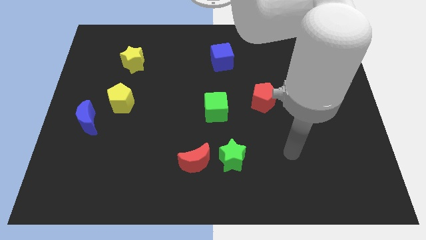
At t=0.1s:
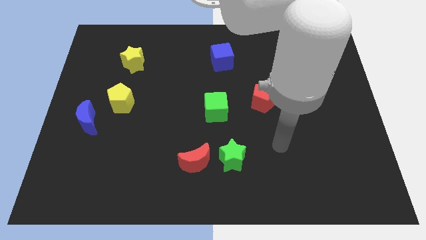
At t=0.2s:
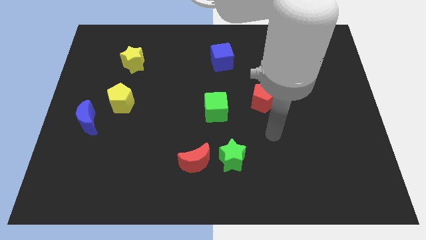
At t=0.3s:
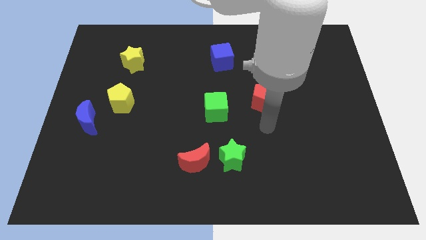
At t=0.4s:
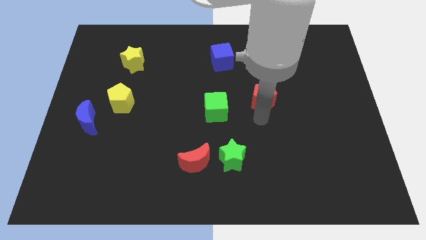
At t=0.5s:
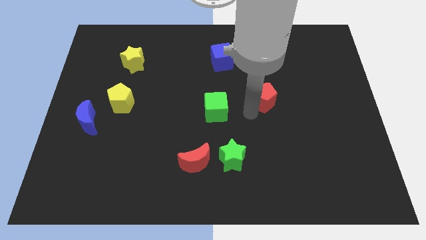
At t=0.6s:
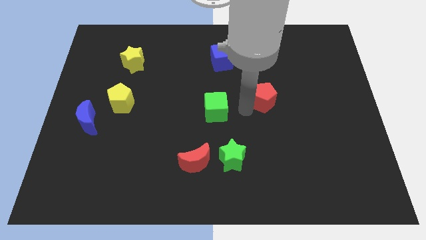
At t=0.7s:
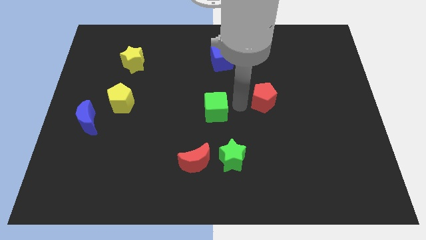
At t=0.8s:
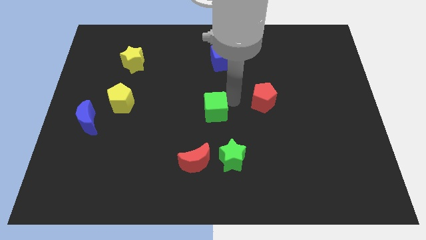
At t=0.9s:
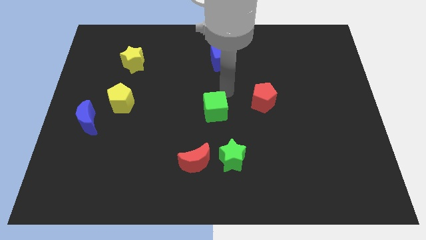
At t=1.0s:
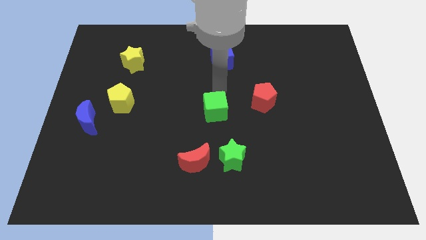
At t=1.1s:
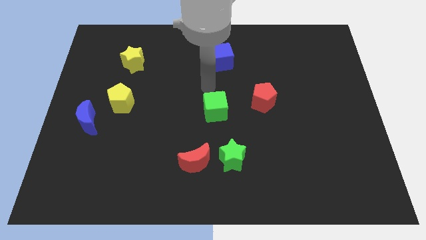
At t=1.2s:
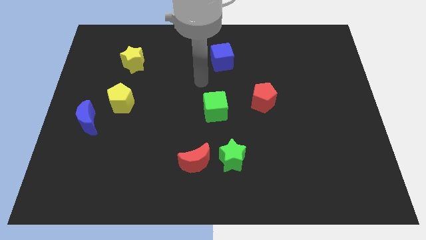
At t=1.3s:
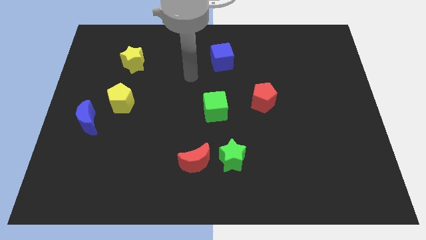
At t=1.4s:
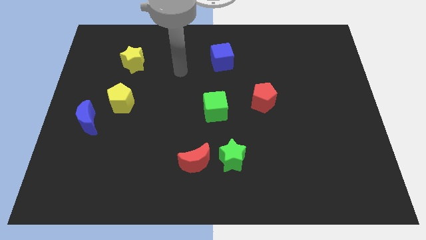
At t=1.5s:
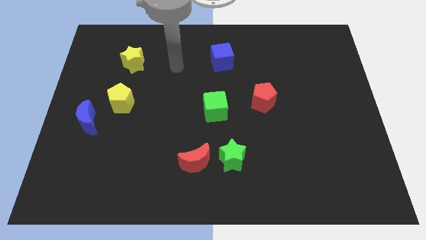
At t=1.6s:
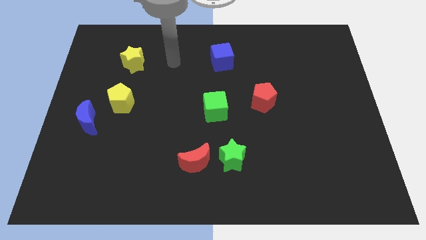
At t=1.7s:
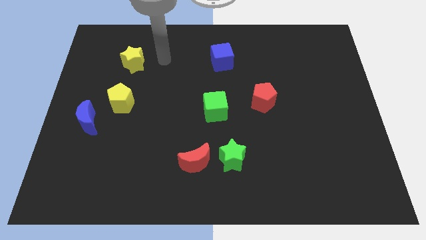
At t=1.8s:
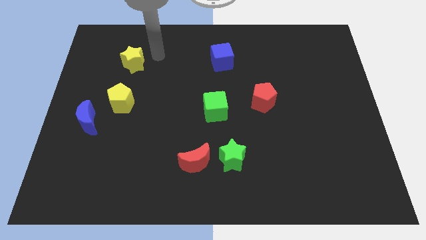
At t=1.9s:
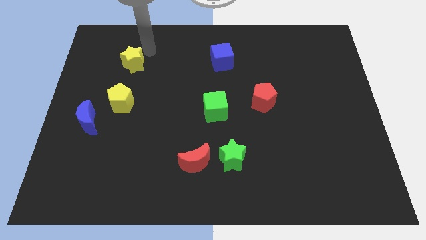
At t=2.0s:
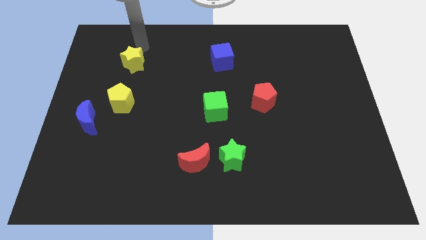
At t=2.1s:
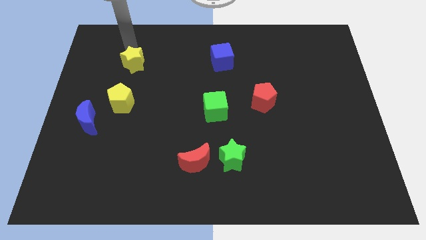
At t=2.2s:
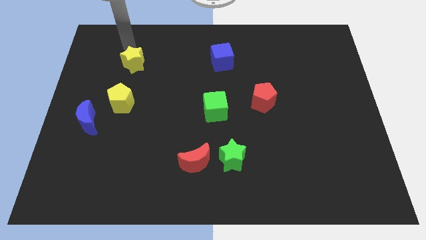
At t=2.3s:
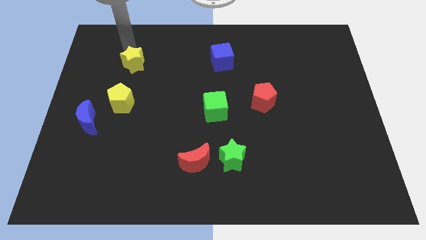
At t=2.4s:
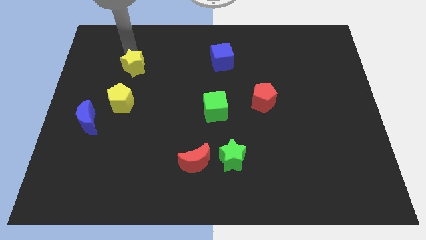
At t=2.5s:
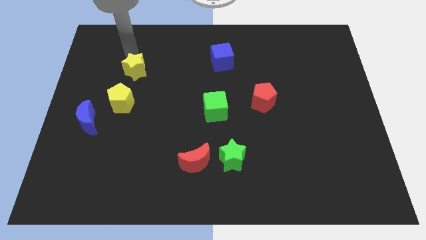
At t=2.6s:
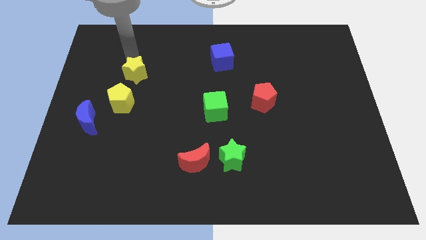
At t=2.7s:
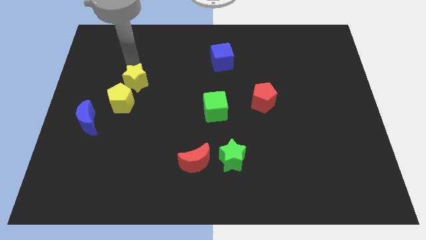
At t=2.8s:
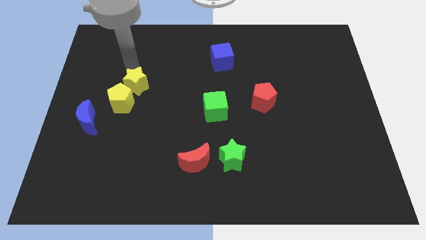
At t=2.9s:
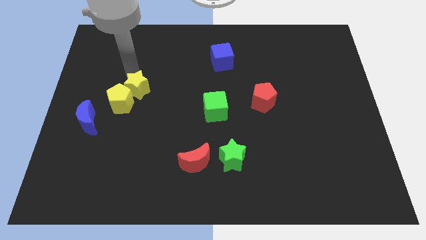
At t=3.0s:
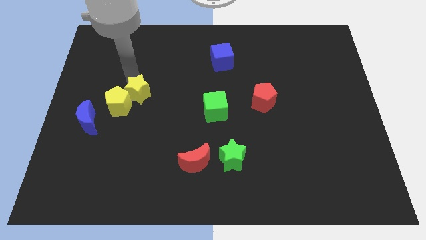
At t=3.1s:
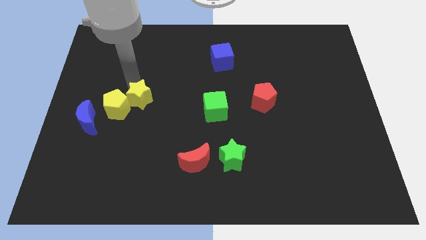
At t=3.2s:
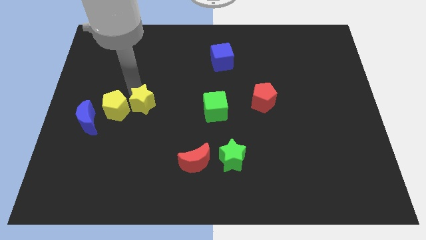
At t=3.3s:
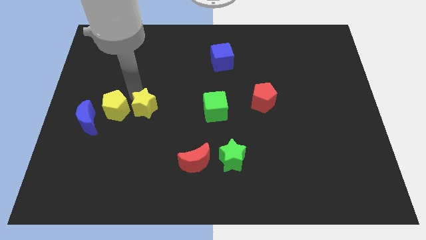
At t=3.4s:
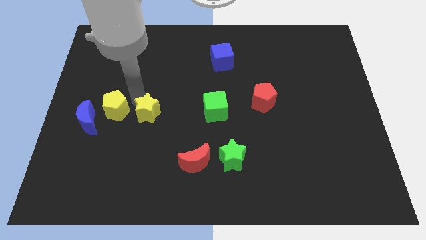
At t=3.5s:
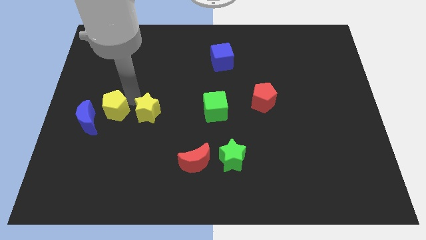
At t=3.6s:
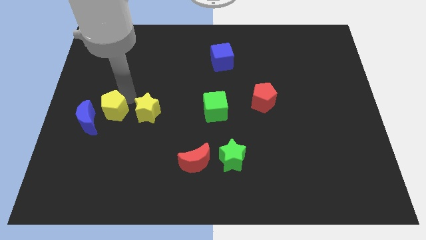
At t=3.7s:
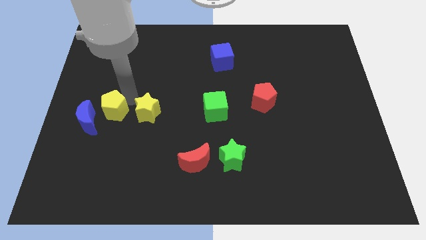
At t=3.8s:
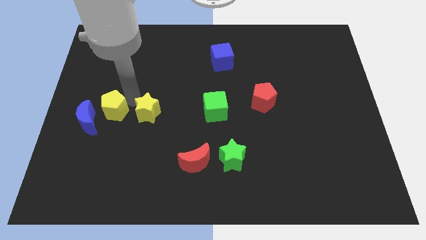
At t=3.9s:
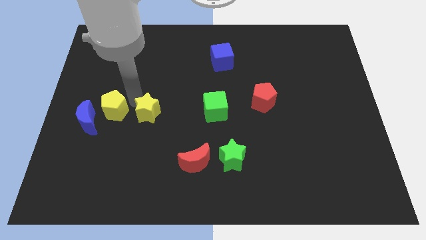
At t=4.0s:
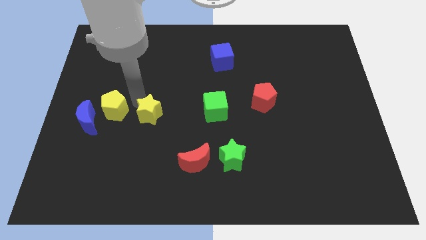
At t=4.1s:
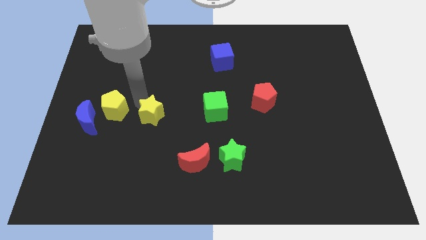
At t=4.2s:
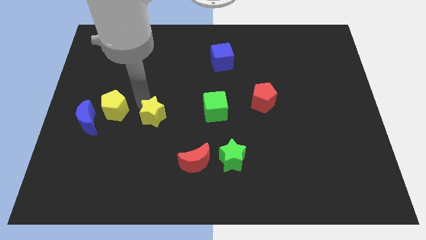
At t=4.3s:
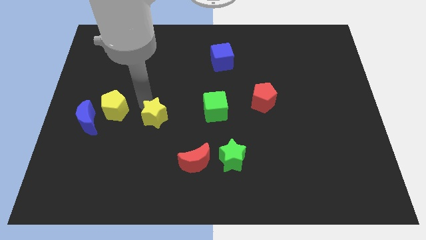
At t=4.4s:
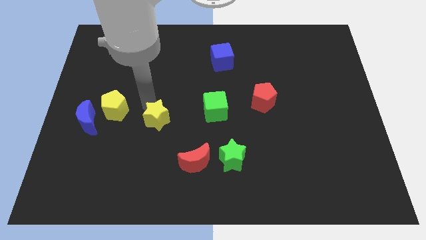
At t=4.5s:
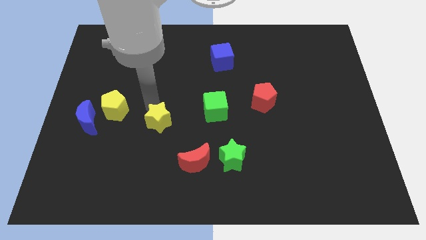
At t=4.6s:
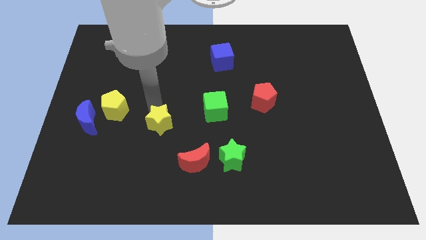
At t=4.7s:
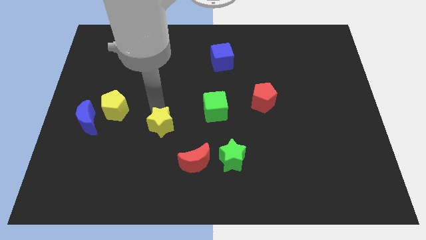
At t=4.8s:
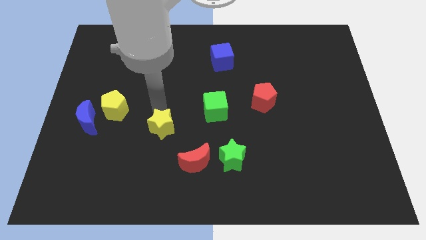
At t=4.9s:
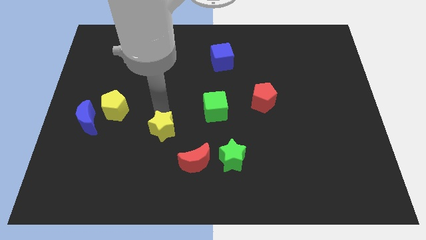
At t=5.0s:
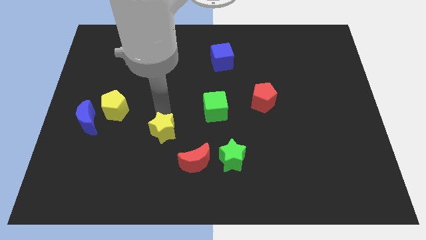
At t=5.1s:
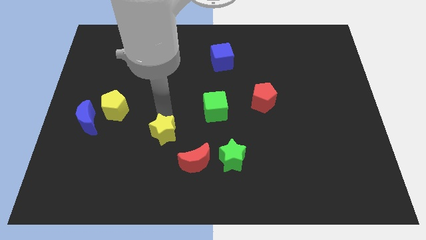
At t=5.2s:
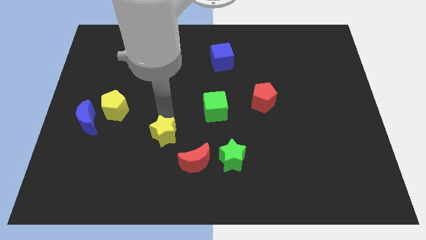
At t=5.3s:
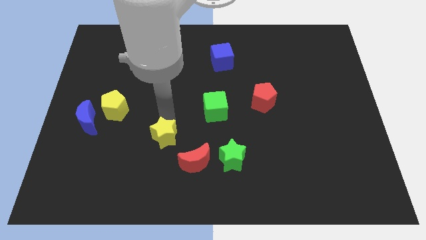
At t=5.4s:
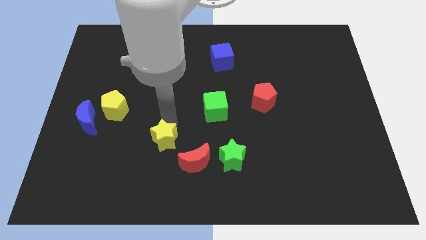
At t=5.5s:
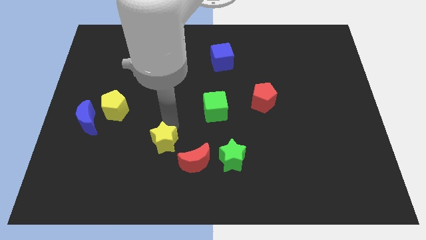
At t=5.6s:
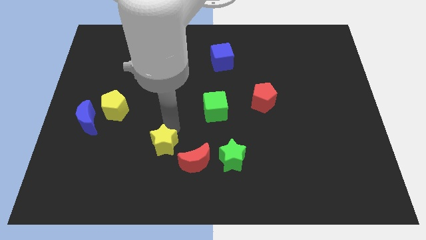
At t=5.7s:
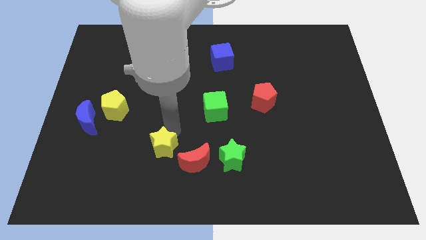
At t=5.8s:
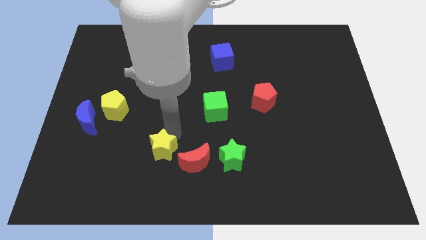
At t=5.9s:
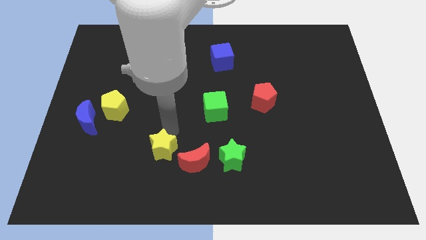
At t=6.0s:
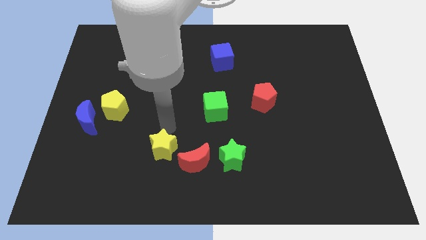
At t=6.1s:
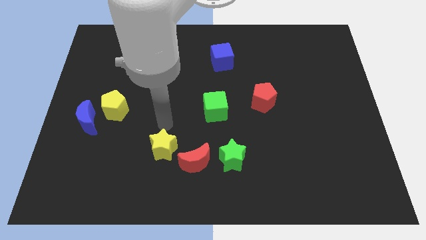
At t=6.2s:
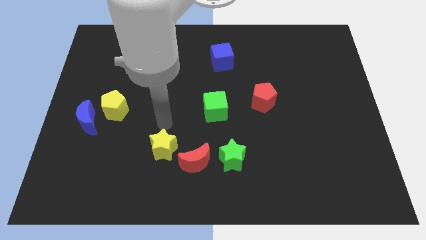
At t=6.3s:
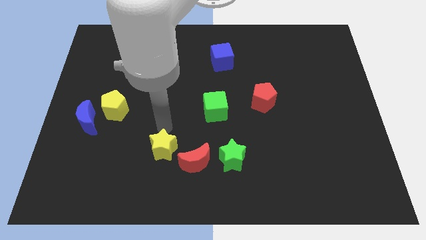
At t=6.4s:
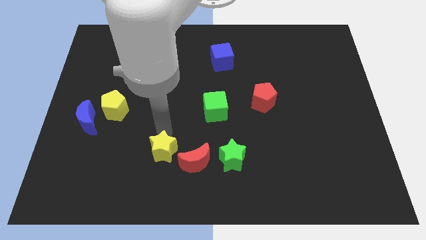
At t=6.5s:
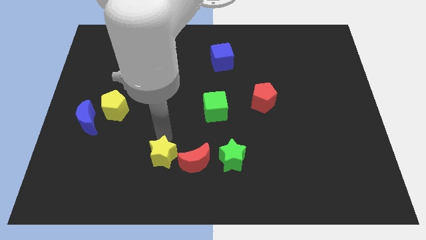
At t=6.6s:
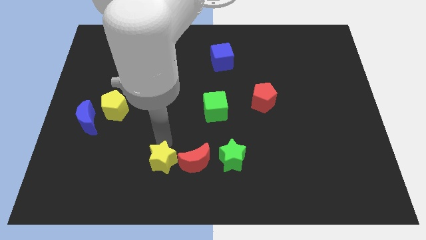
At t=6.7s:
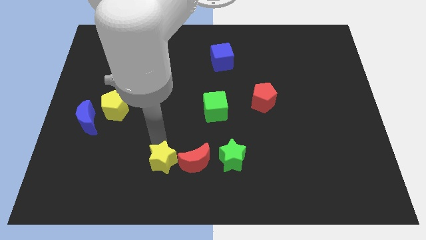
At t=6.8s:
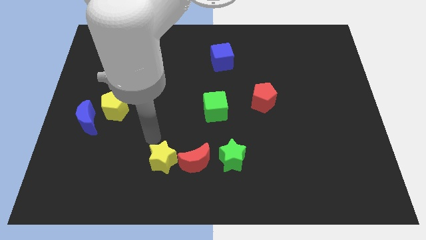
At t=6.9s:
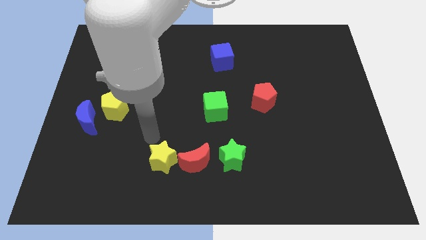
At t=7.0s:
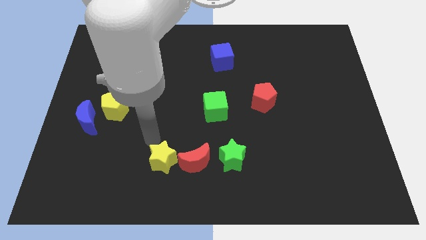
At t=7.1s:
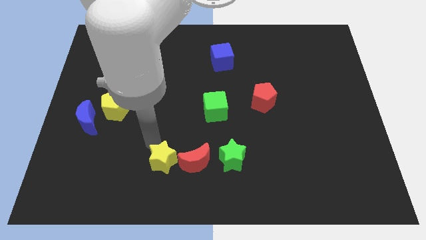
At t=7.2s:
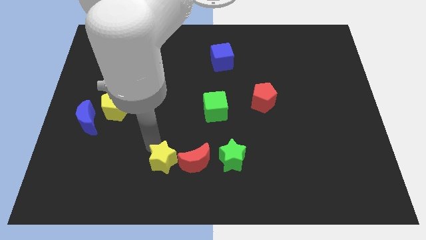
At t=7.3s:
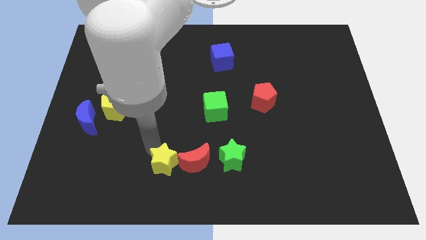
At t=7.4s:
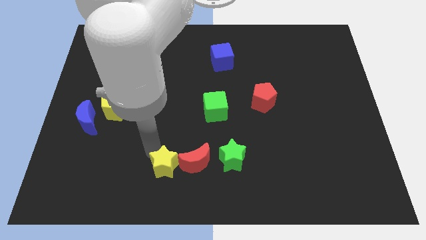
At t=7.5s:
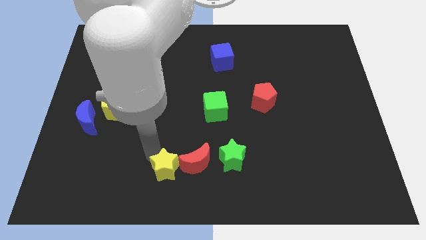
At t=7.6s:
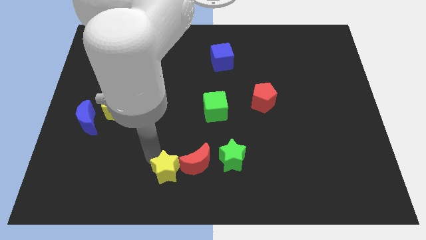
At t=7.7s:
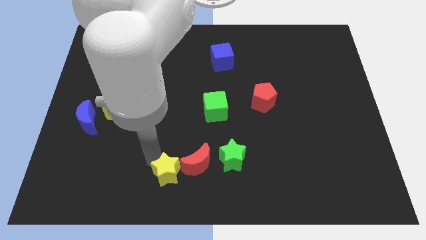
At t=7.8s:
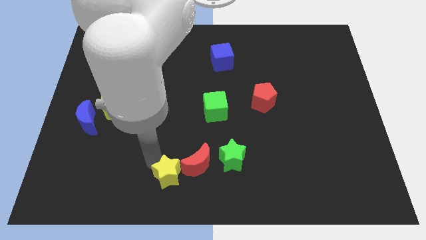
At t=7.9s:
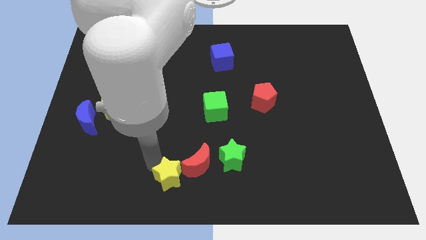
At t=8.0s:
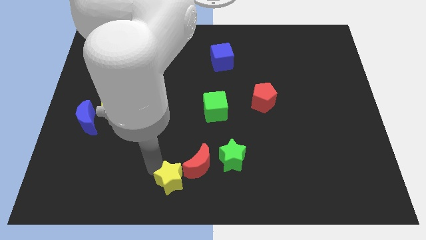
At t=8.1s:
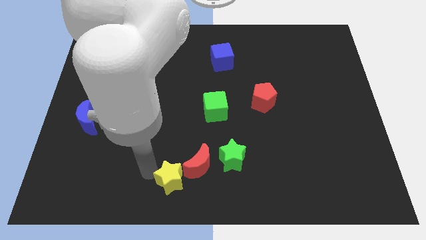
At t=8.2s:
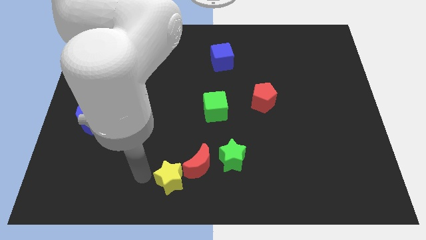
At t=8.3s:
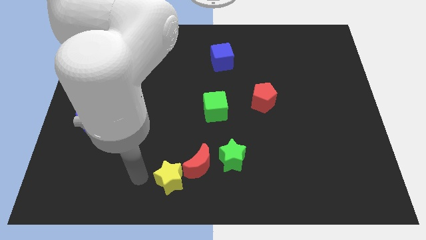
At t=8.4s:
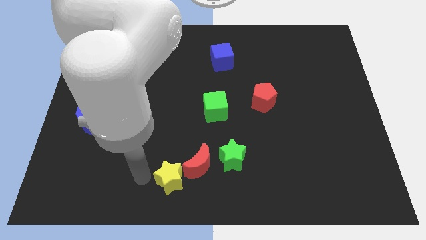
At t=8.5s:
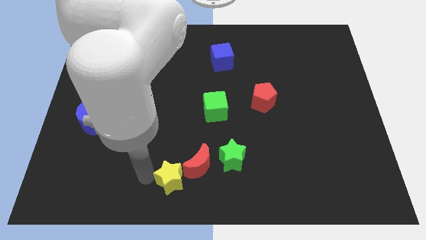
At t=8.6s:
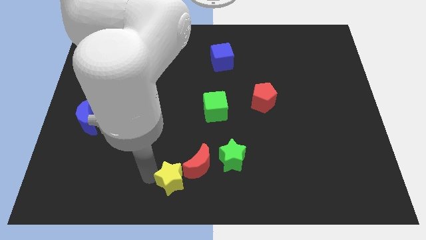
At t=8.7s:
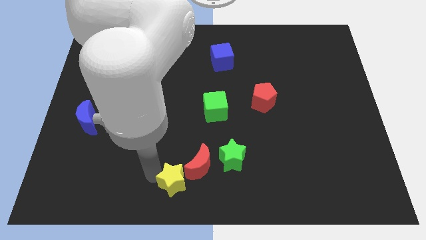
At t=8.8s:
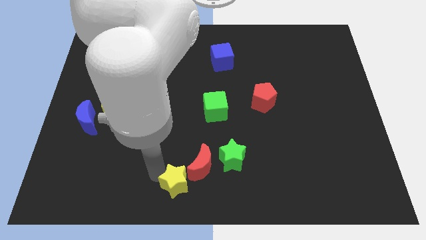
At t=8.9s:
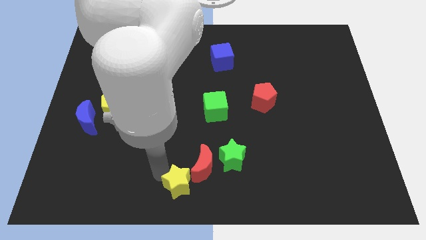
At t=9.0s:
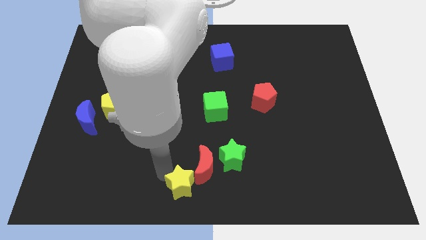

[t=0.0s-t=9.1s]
put the yellow star to the bottom left side of the green star
